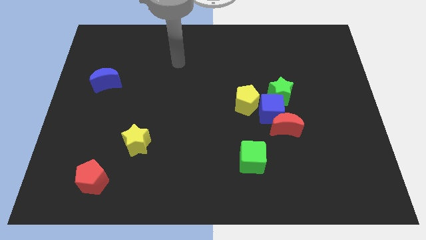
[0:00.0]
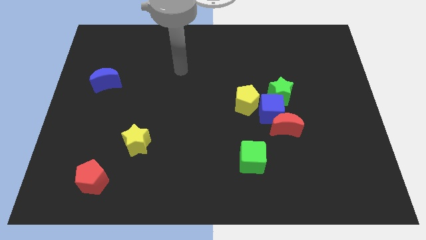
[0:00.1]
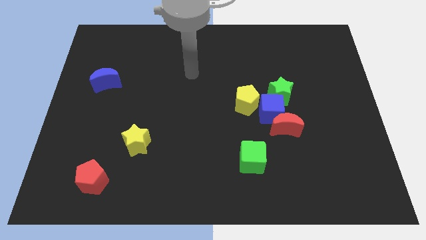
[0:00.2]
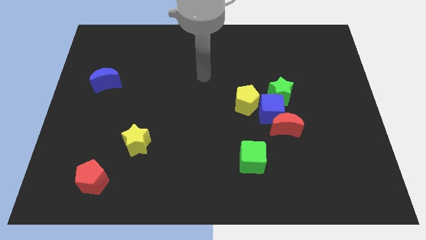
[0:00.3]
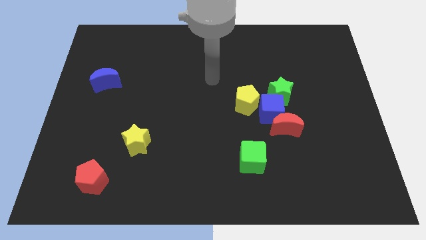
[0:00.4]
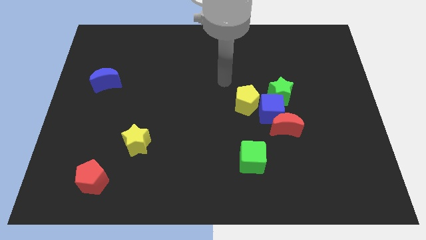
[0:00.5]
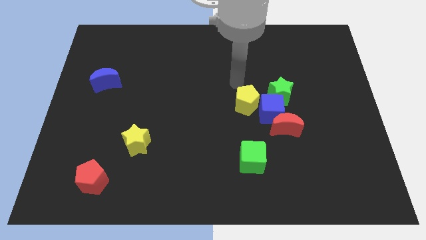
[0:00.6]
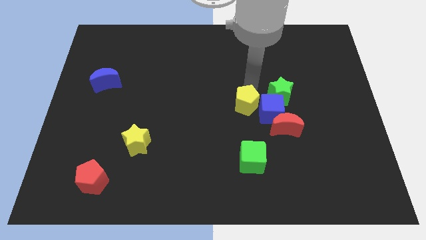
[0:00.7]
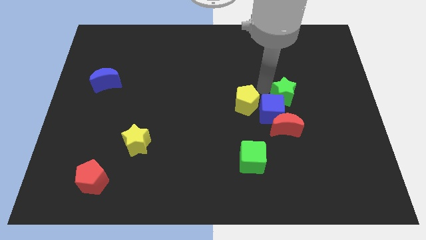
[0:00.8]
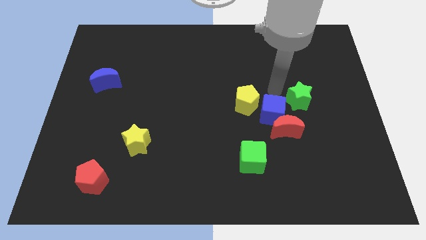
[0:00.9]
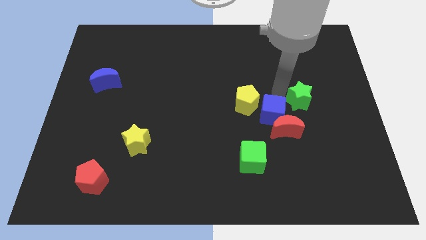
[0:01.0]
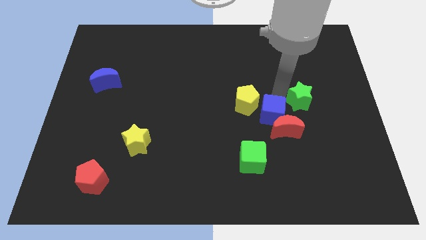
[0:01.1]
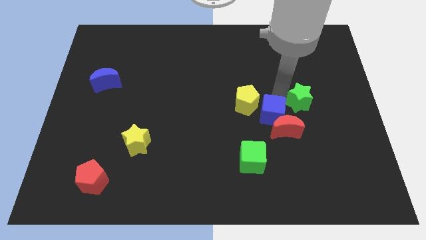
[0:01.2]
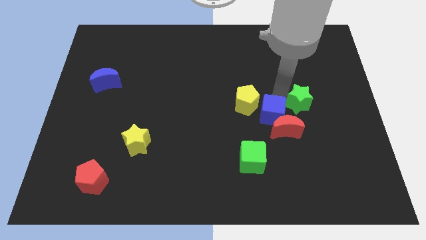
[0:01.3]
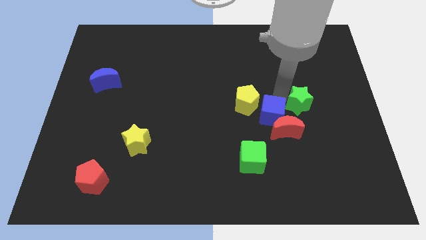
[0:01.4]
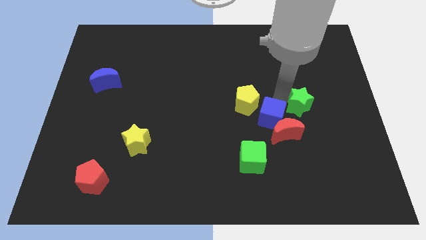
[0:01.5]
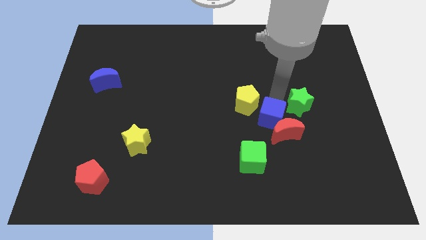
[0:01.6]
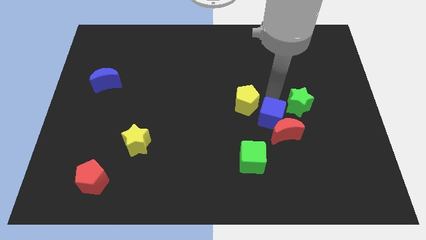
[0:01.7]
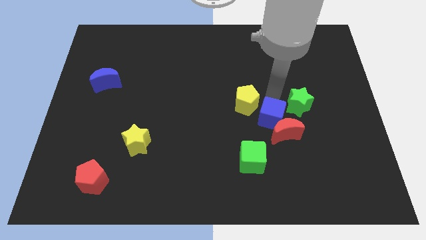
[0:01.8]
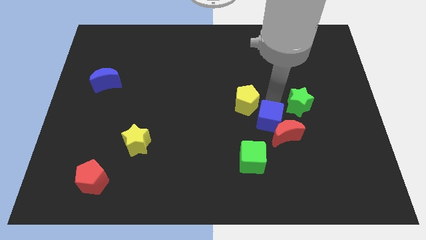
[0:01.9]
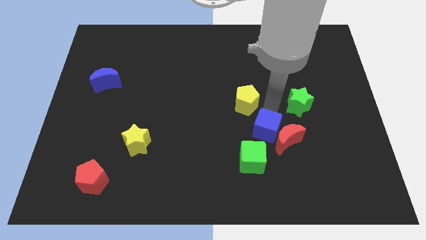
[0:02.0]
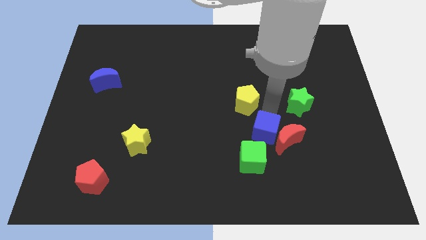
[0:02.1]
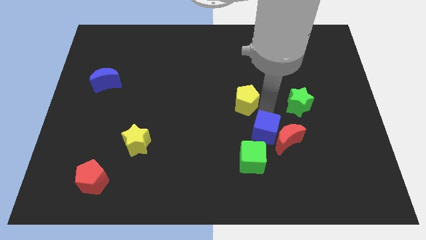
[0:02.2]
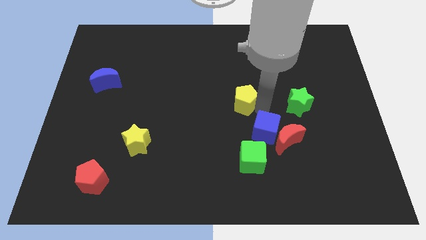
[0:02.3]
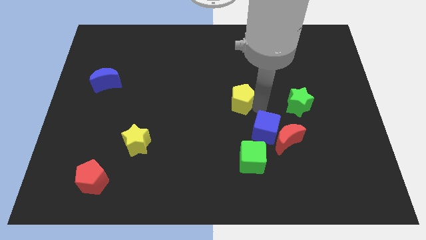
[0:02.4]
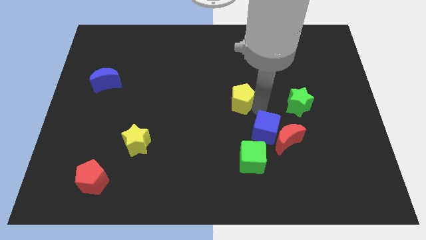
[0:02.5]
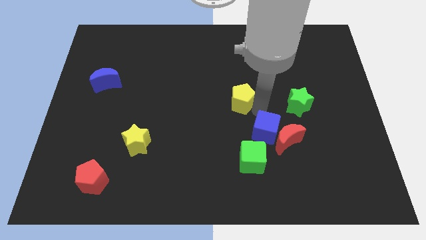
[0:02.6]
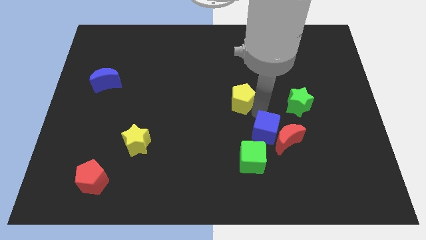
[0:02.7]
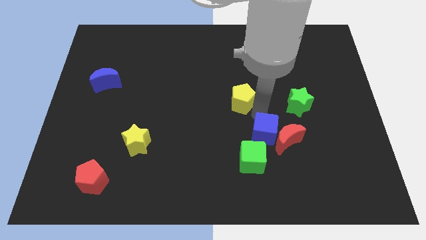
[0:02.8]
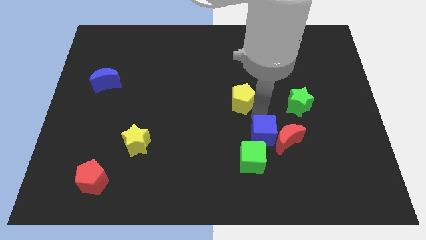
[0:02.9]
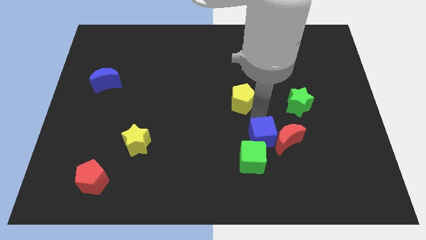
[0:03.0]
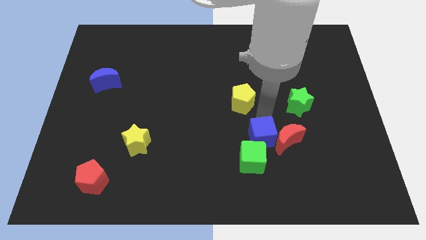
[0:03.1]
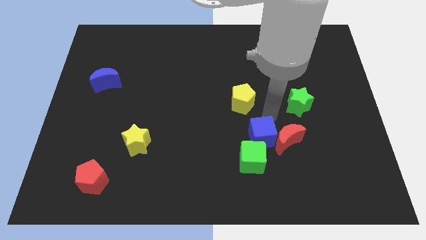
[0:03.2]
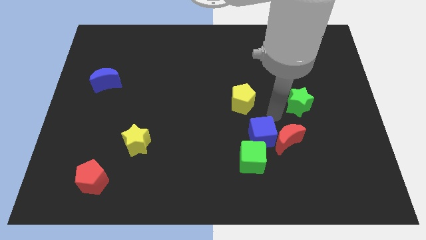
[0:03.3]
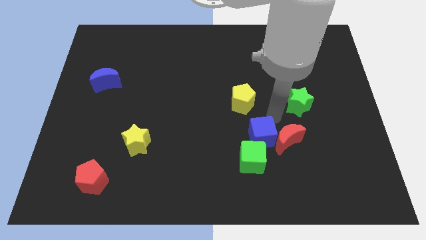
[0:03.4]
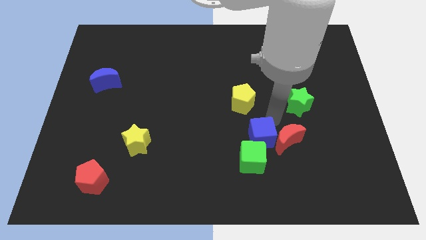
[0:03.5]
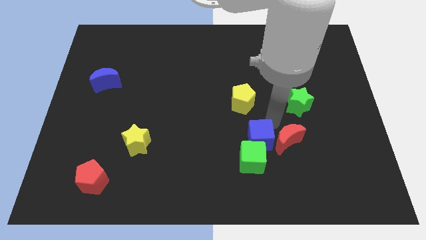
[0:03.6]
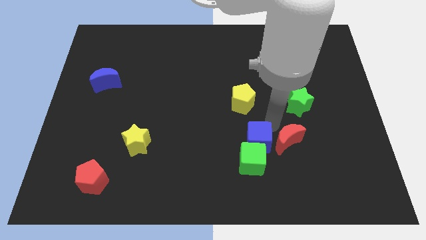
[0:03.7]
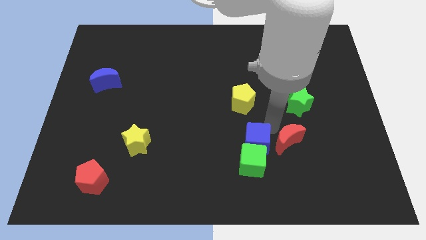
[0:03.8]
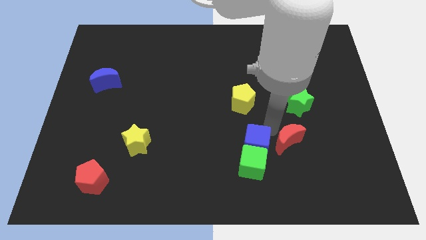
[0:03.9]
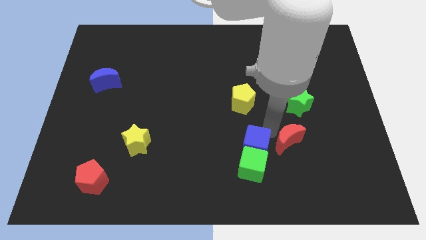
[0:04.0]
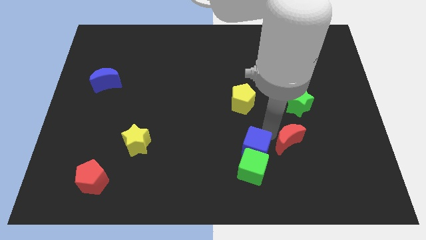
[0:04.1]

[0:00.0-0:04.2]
pull the blue cube apart from the group

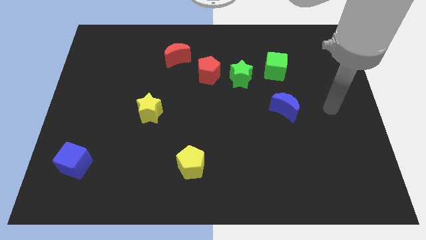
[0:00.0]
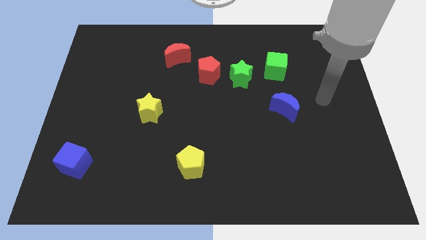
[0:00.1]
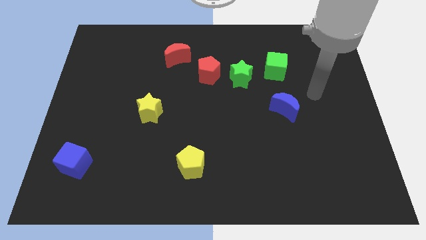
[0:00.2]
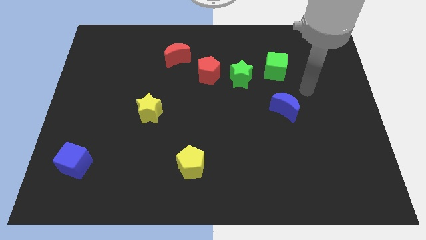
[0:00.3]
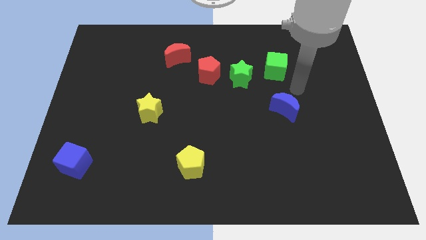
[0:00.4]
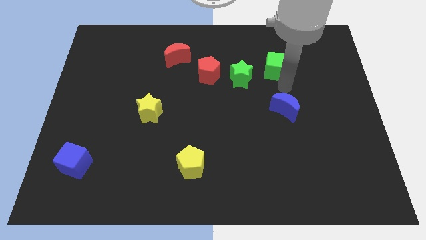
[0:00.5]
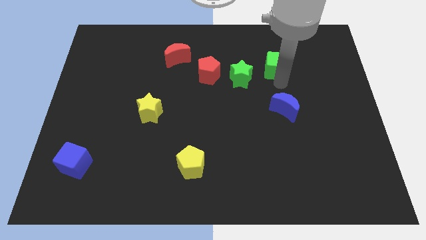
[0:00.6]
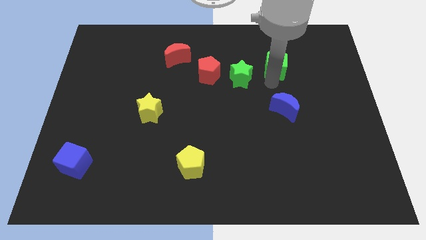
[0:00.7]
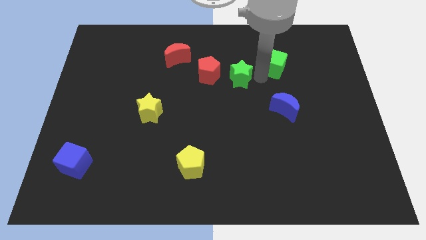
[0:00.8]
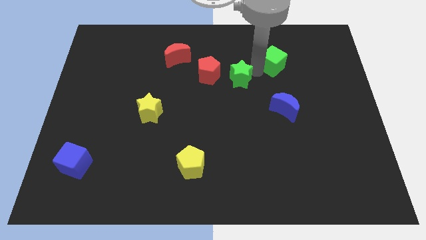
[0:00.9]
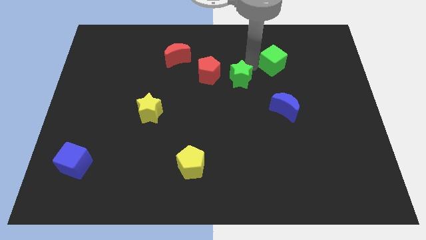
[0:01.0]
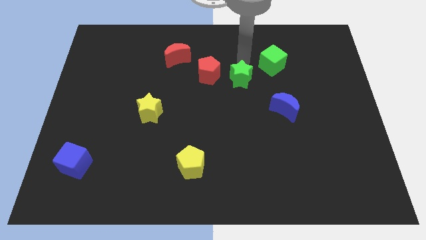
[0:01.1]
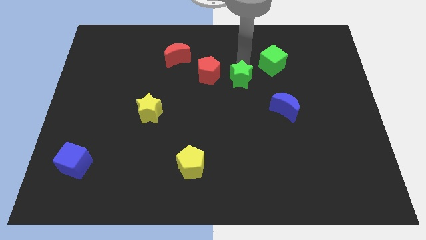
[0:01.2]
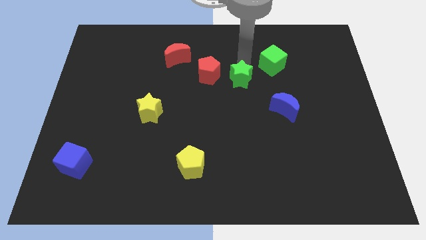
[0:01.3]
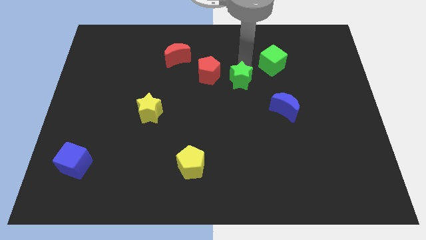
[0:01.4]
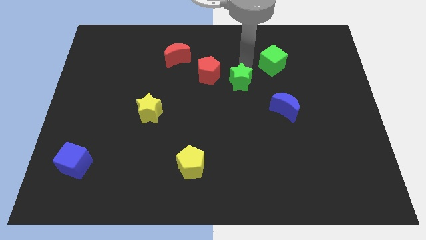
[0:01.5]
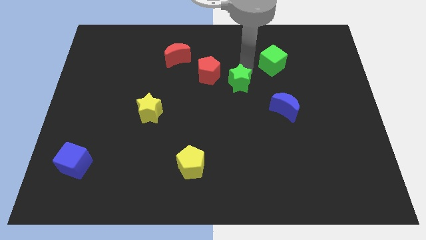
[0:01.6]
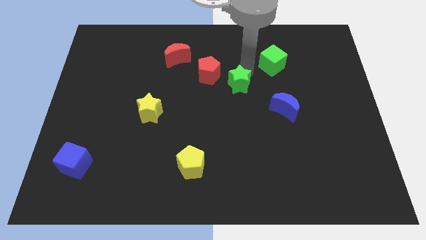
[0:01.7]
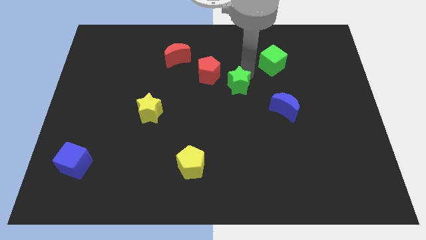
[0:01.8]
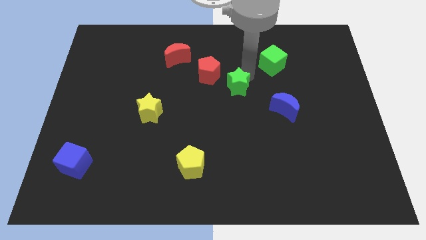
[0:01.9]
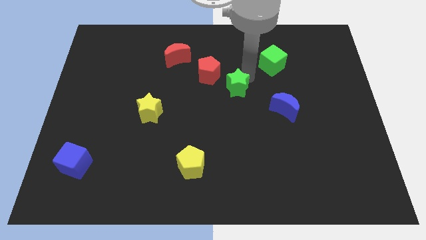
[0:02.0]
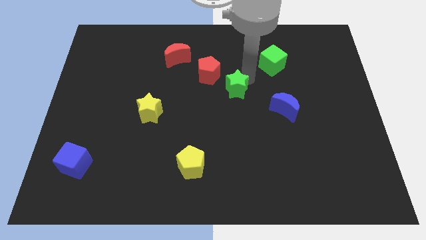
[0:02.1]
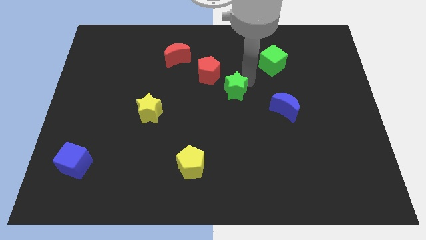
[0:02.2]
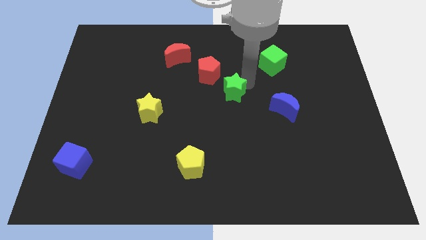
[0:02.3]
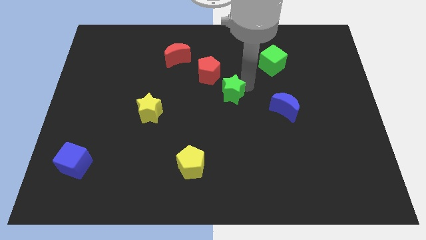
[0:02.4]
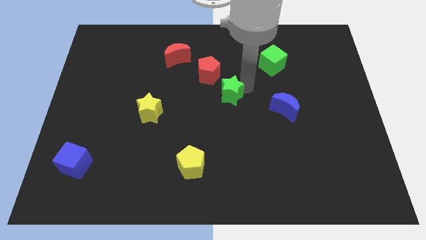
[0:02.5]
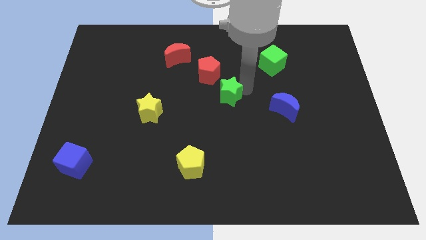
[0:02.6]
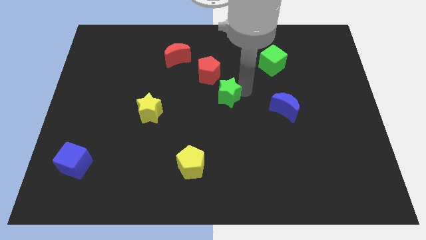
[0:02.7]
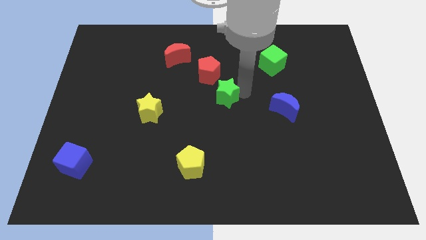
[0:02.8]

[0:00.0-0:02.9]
separate the green star from the red pentagon and green cube

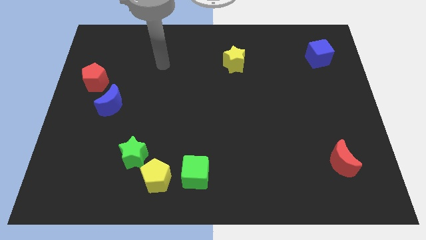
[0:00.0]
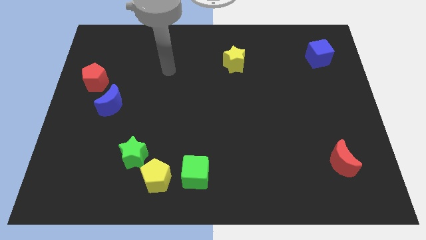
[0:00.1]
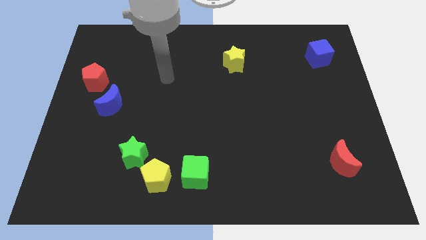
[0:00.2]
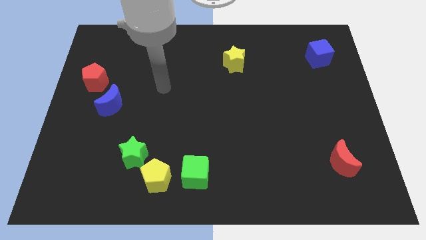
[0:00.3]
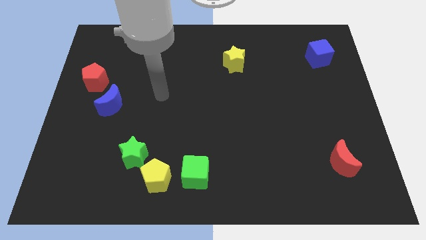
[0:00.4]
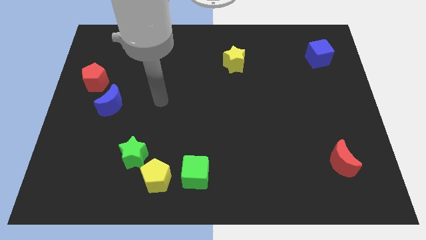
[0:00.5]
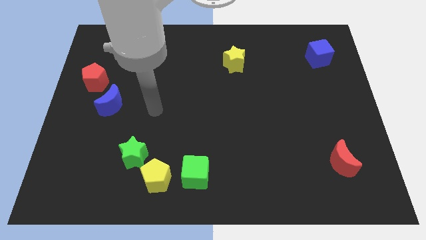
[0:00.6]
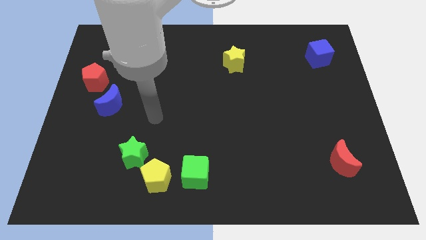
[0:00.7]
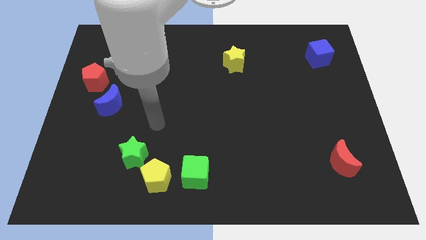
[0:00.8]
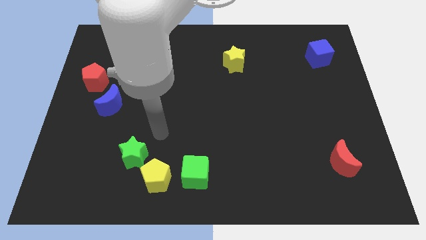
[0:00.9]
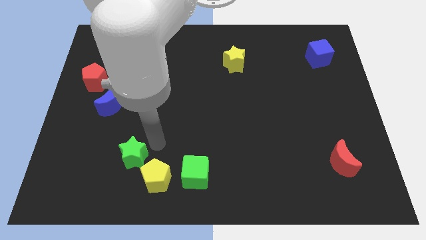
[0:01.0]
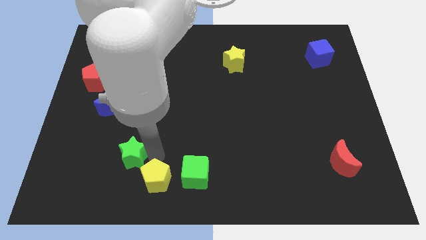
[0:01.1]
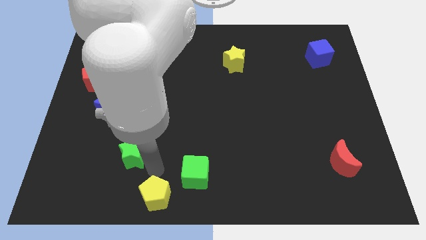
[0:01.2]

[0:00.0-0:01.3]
separate the green star from the yellow pentagon

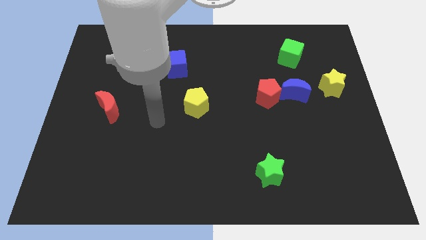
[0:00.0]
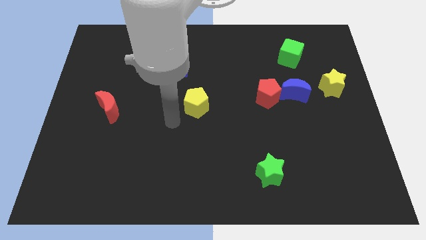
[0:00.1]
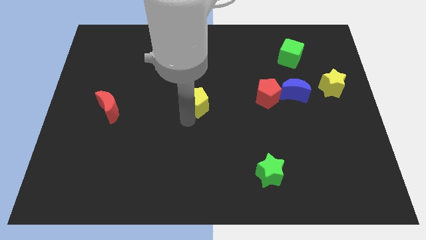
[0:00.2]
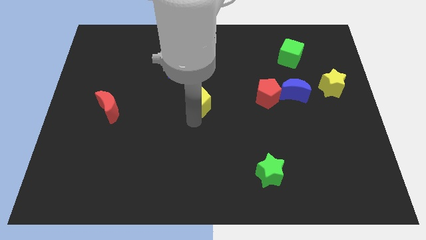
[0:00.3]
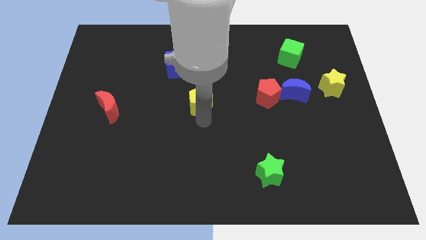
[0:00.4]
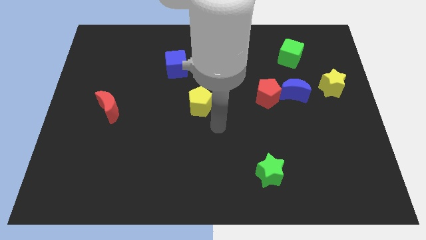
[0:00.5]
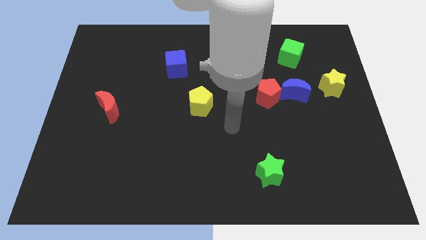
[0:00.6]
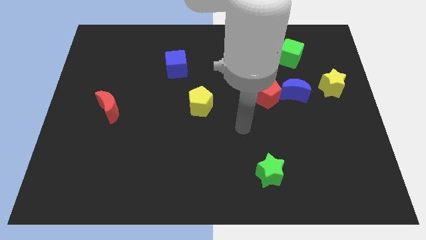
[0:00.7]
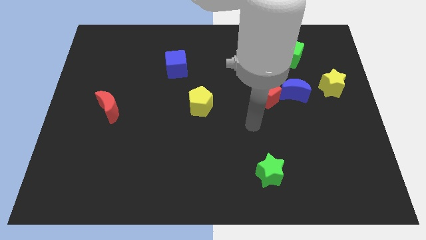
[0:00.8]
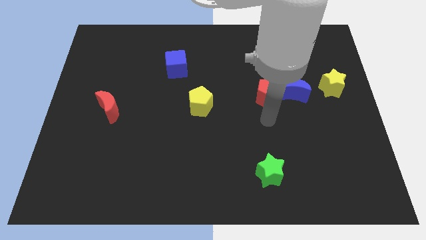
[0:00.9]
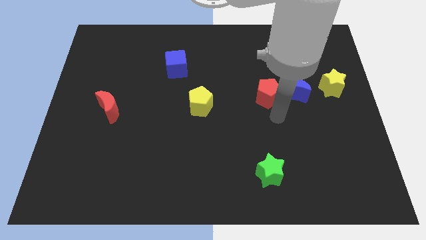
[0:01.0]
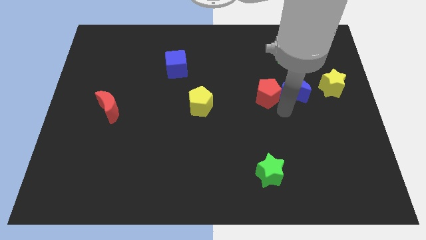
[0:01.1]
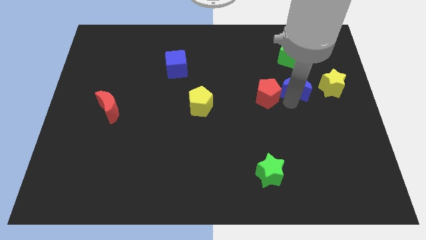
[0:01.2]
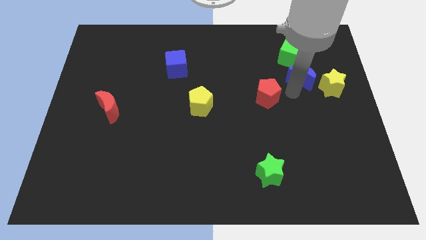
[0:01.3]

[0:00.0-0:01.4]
pull the red pentagon apart from the blue moon
